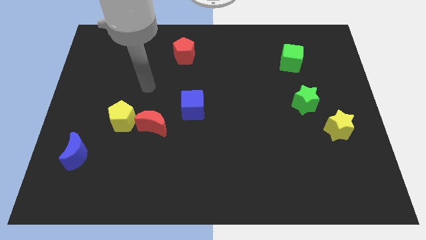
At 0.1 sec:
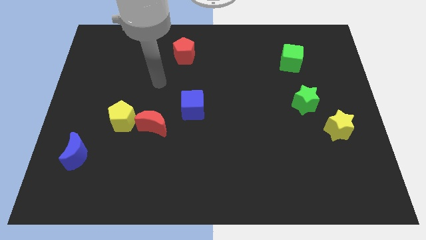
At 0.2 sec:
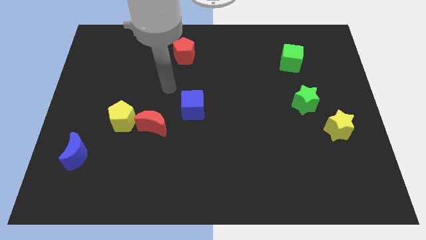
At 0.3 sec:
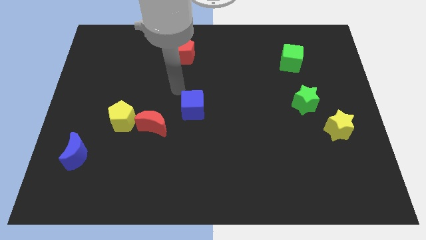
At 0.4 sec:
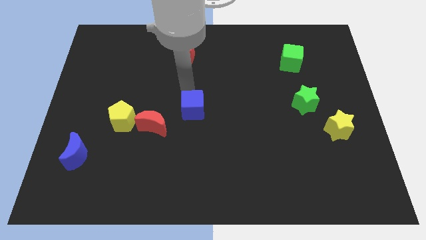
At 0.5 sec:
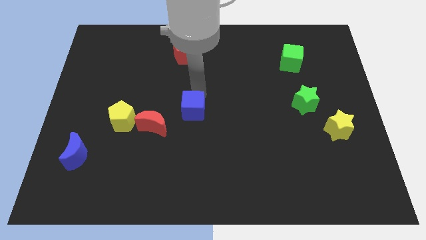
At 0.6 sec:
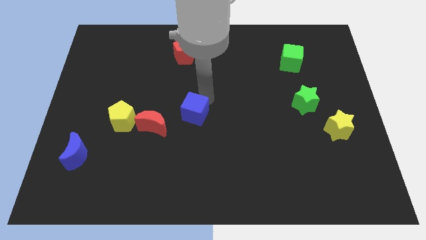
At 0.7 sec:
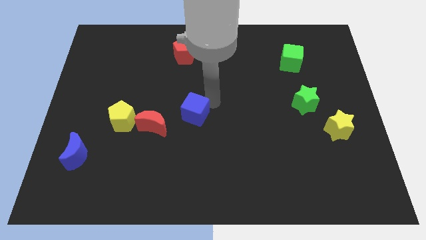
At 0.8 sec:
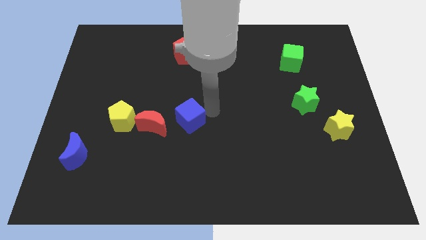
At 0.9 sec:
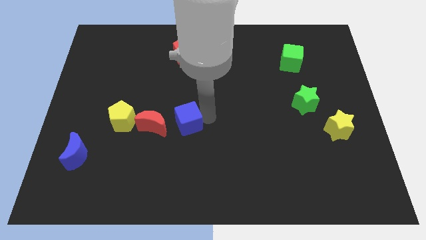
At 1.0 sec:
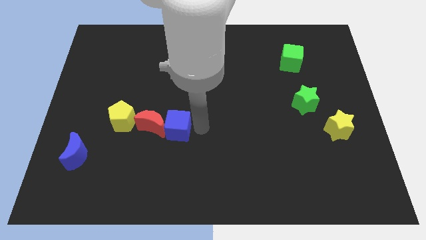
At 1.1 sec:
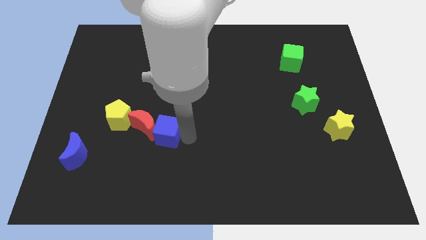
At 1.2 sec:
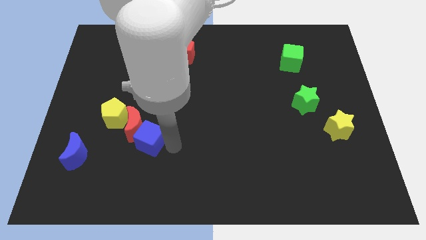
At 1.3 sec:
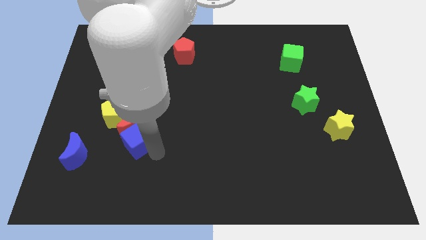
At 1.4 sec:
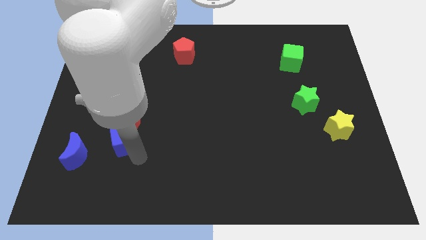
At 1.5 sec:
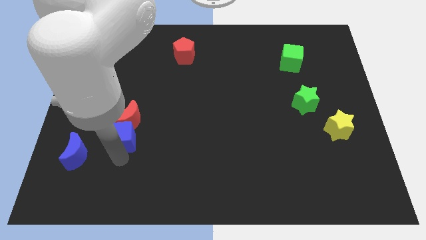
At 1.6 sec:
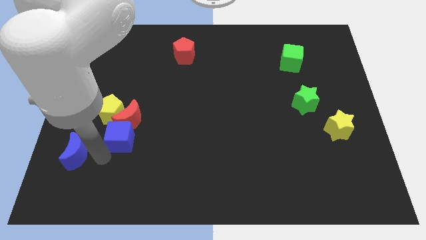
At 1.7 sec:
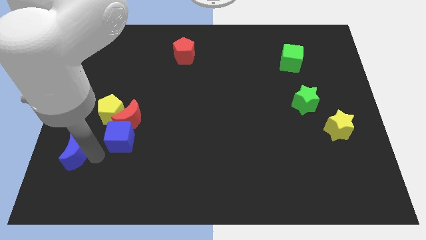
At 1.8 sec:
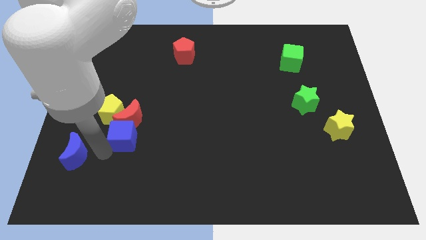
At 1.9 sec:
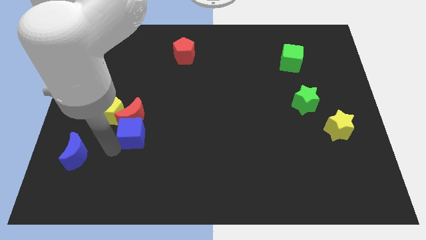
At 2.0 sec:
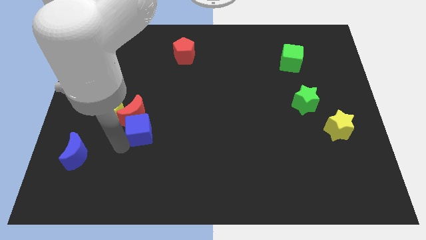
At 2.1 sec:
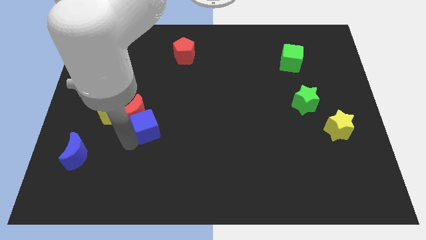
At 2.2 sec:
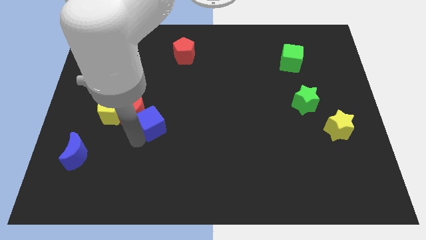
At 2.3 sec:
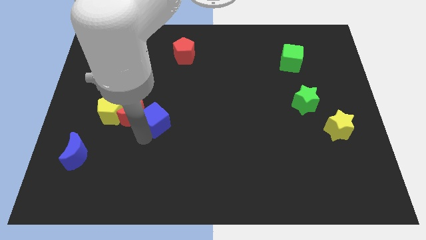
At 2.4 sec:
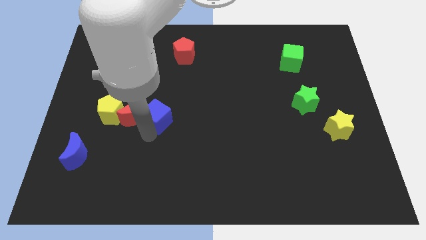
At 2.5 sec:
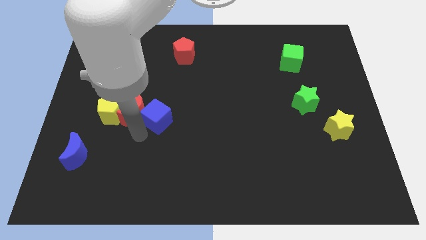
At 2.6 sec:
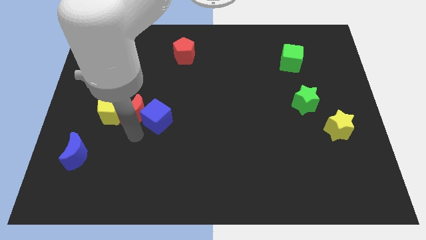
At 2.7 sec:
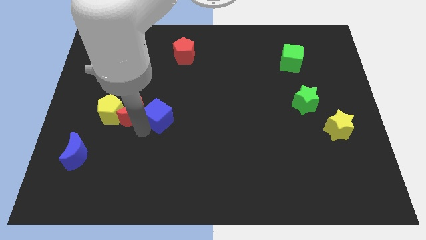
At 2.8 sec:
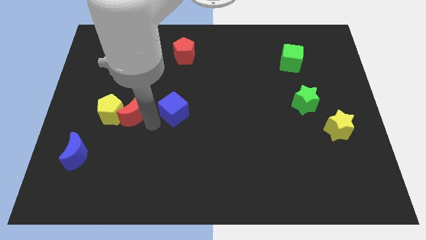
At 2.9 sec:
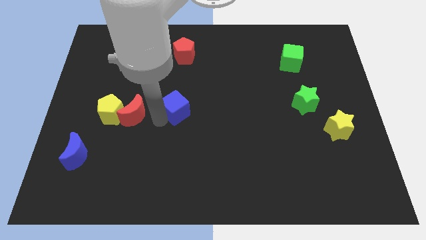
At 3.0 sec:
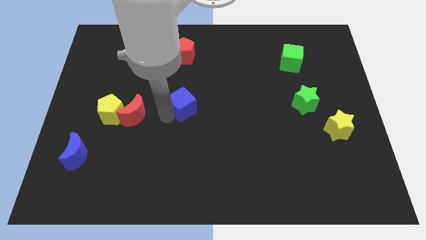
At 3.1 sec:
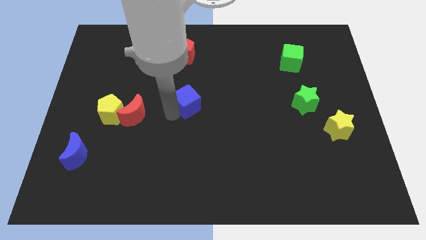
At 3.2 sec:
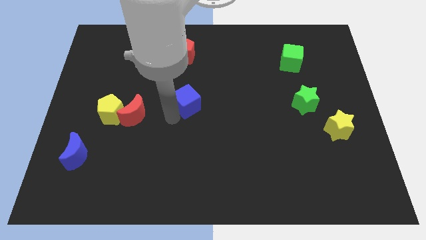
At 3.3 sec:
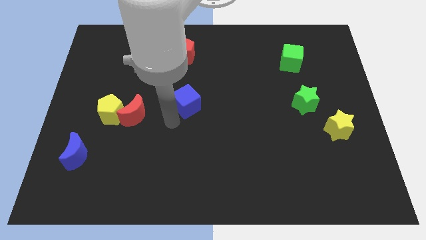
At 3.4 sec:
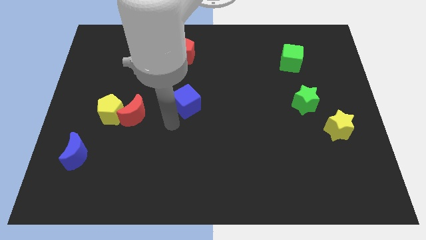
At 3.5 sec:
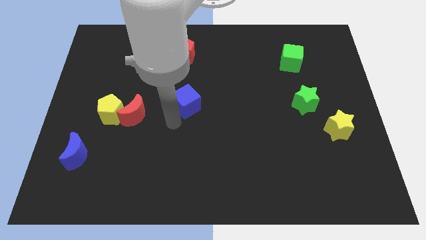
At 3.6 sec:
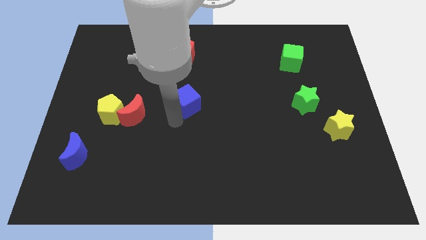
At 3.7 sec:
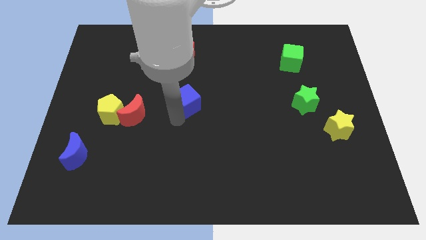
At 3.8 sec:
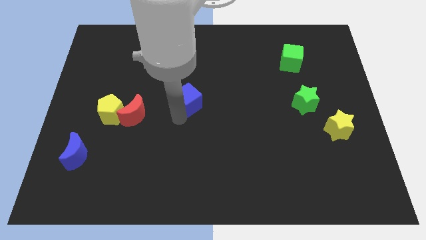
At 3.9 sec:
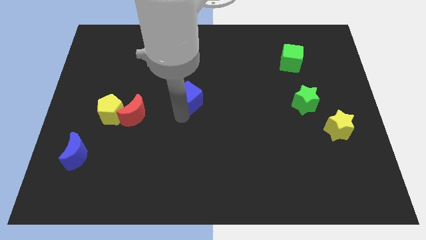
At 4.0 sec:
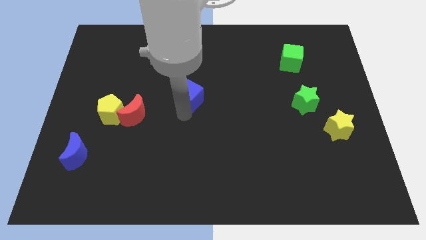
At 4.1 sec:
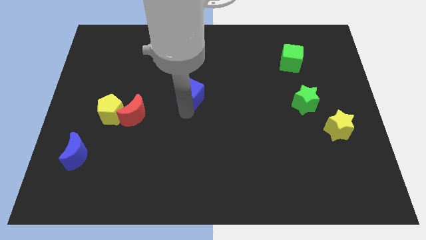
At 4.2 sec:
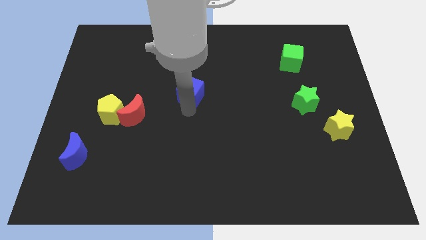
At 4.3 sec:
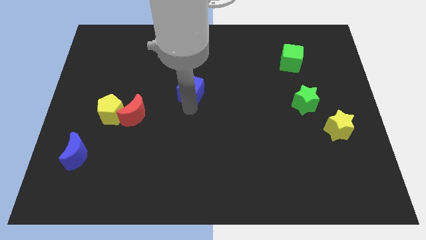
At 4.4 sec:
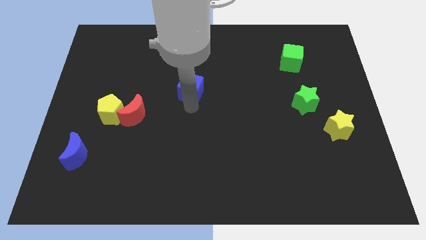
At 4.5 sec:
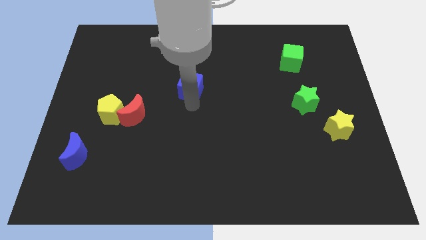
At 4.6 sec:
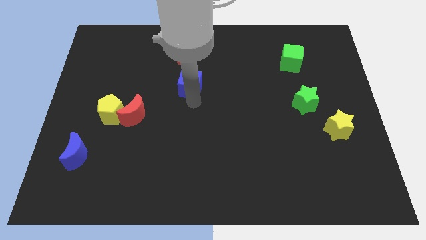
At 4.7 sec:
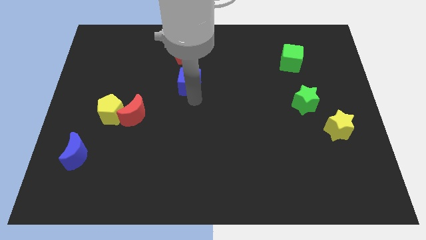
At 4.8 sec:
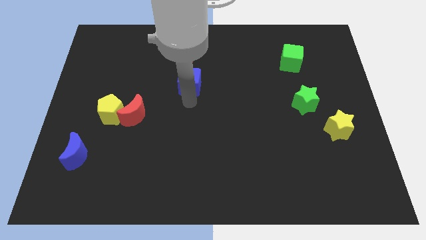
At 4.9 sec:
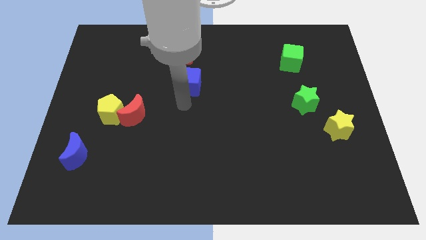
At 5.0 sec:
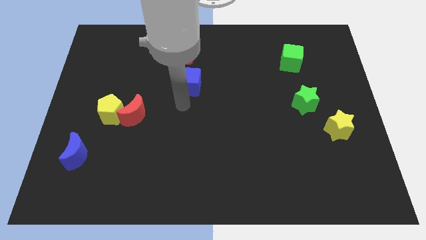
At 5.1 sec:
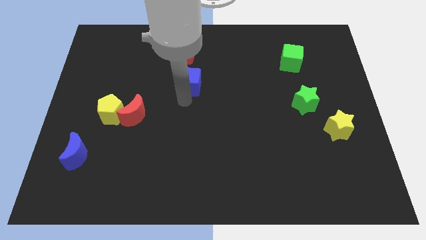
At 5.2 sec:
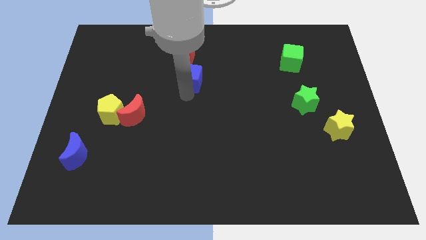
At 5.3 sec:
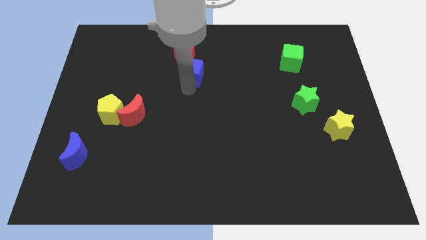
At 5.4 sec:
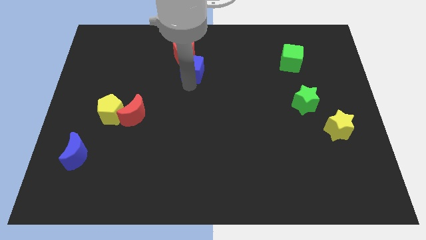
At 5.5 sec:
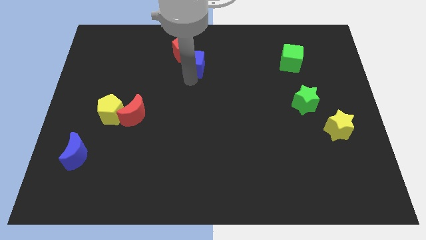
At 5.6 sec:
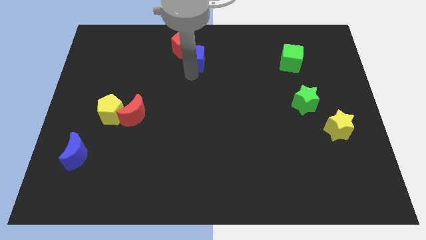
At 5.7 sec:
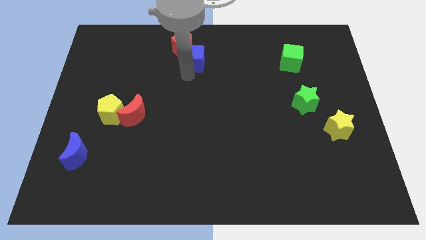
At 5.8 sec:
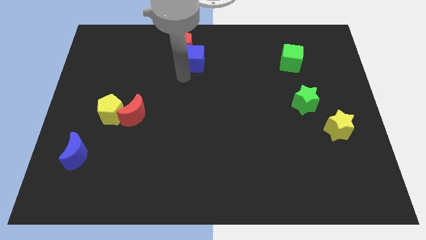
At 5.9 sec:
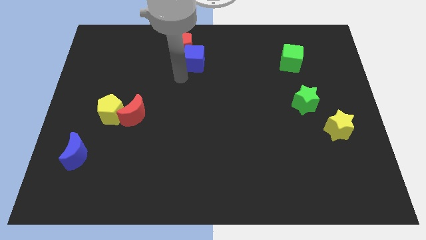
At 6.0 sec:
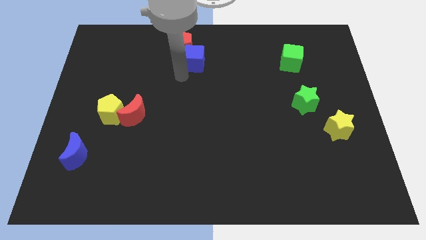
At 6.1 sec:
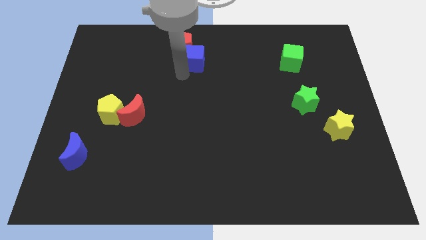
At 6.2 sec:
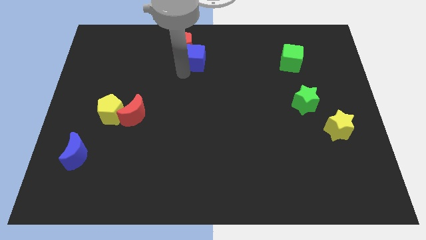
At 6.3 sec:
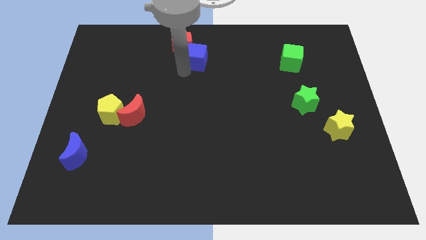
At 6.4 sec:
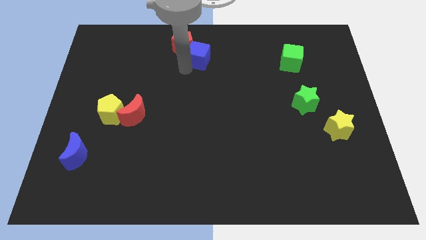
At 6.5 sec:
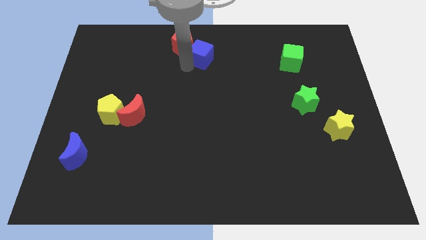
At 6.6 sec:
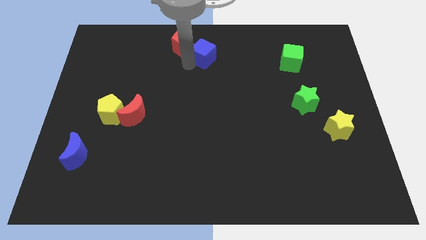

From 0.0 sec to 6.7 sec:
slide the blue cube to the top

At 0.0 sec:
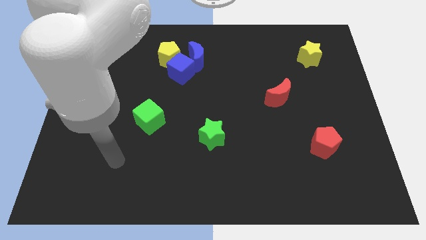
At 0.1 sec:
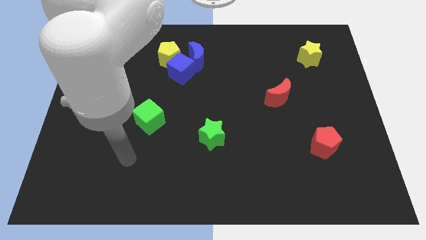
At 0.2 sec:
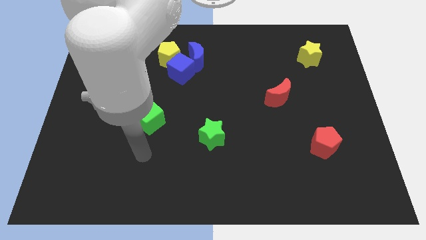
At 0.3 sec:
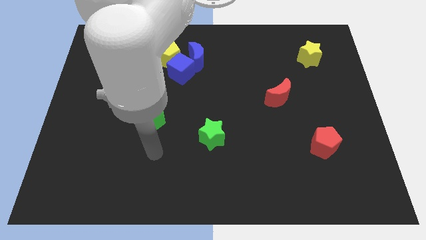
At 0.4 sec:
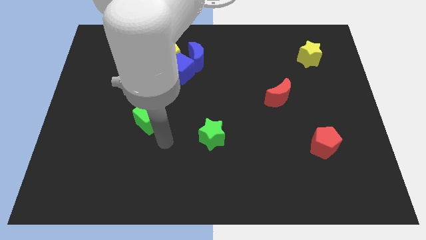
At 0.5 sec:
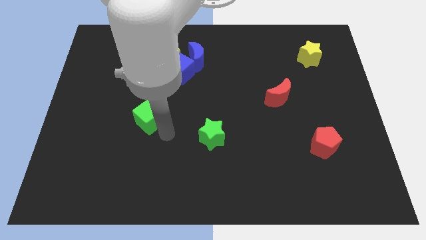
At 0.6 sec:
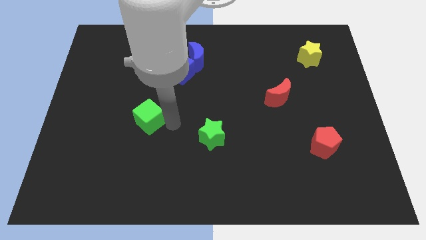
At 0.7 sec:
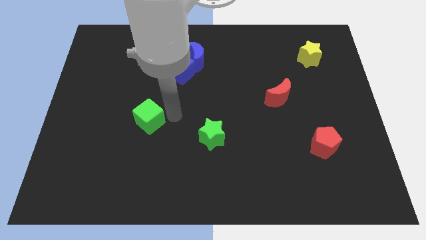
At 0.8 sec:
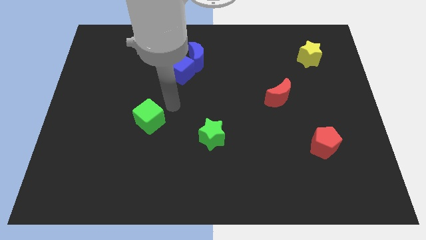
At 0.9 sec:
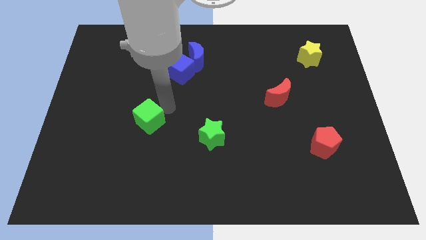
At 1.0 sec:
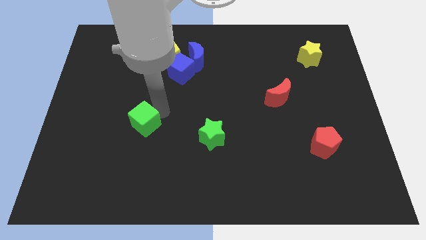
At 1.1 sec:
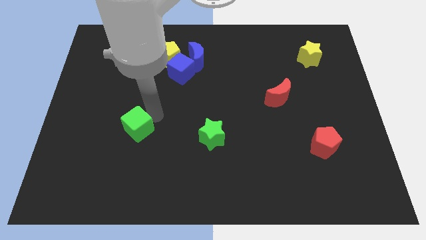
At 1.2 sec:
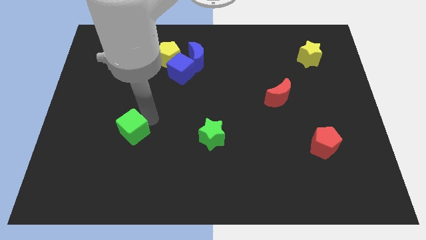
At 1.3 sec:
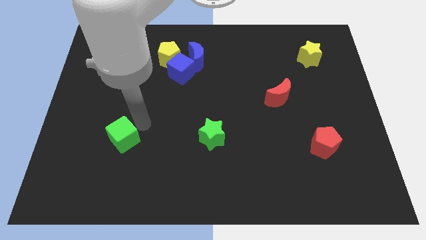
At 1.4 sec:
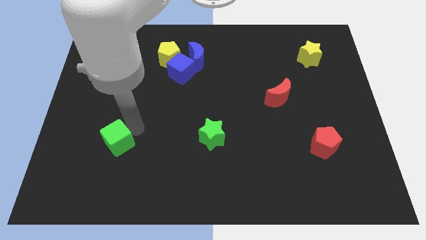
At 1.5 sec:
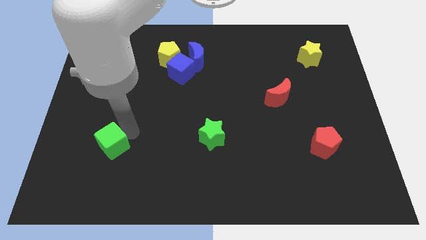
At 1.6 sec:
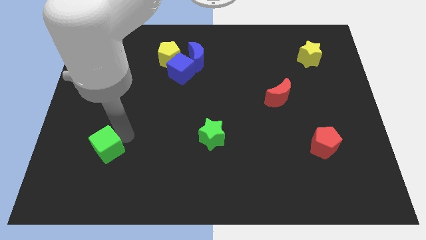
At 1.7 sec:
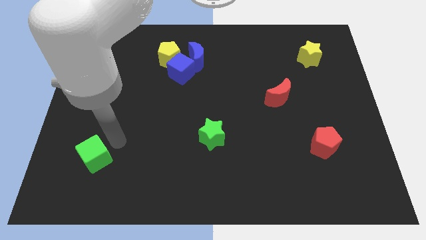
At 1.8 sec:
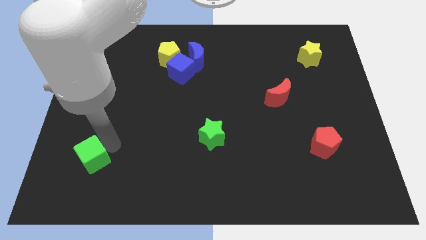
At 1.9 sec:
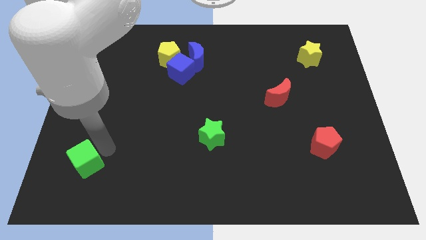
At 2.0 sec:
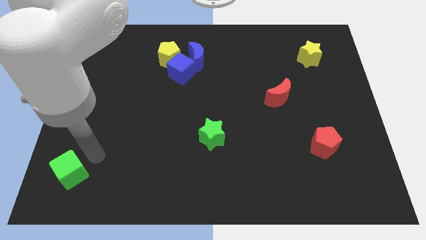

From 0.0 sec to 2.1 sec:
put the green cube to the lower left corner
